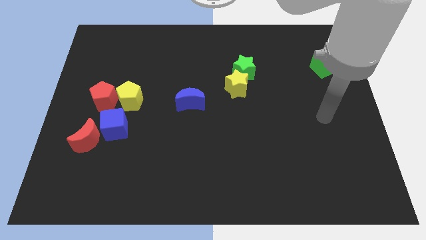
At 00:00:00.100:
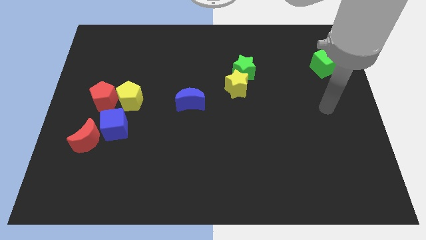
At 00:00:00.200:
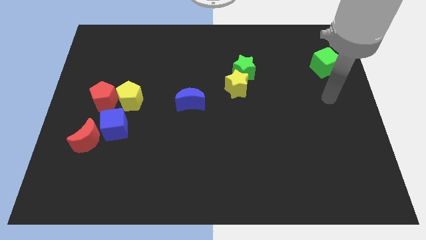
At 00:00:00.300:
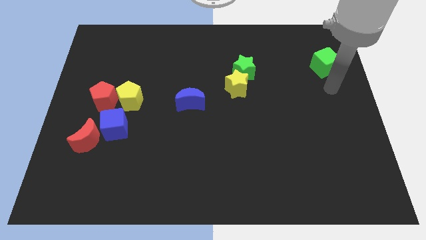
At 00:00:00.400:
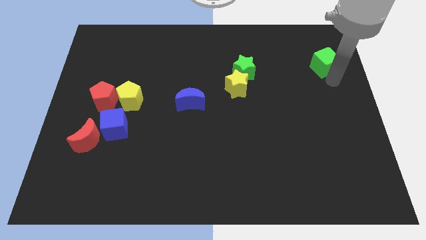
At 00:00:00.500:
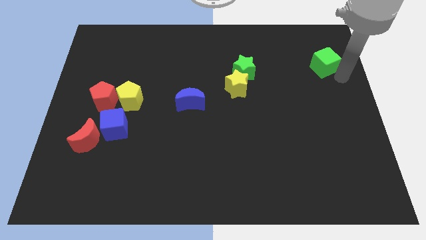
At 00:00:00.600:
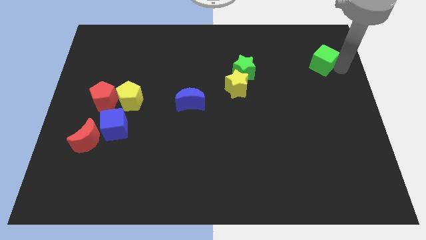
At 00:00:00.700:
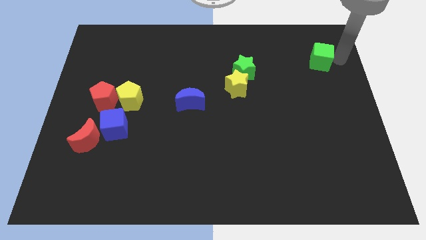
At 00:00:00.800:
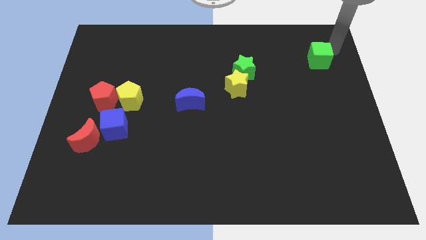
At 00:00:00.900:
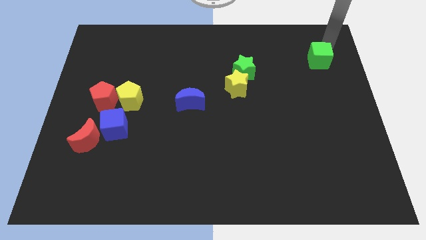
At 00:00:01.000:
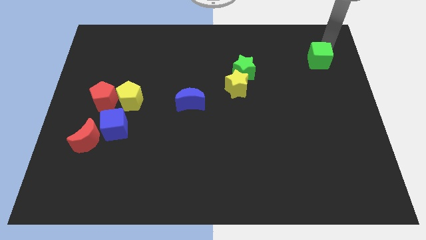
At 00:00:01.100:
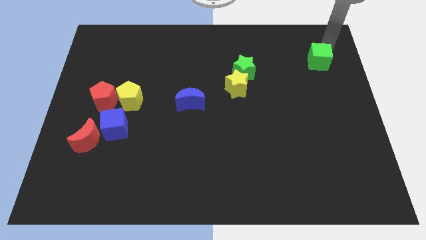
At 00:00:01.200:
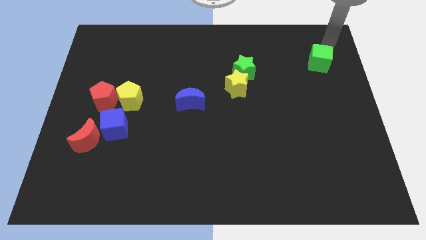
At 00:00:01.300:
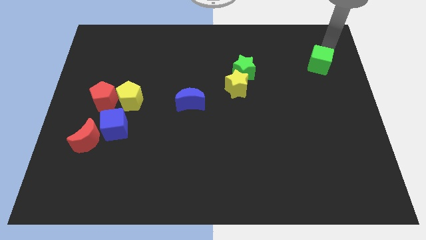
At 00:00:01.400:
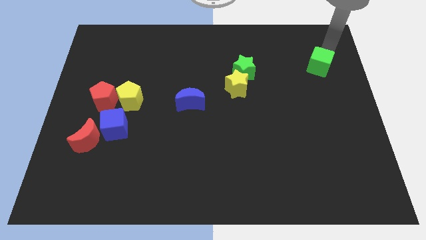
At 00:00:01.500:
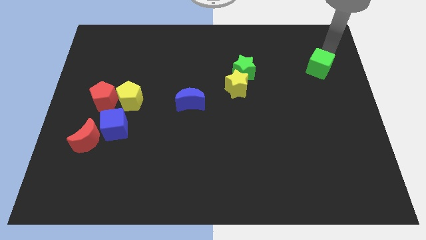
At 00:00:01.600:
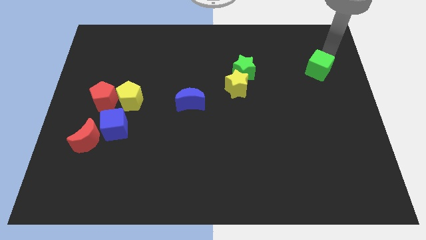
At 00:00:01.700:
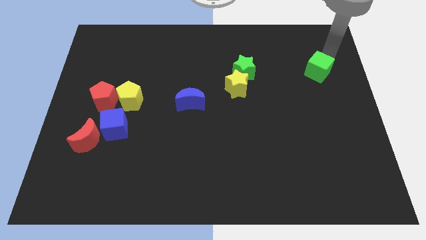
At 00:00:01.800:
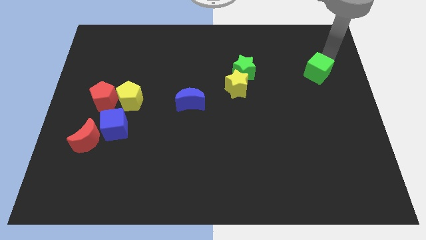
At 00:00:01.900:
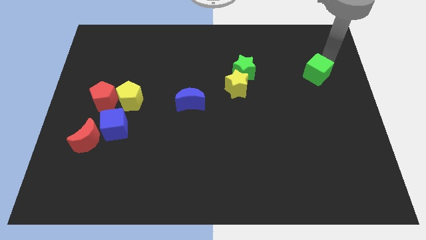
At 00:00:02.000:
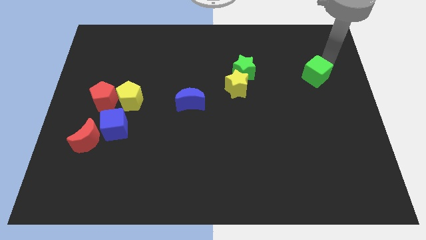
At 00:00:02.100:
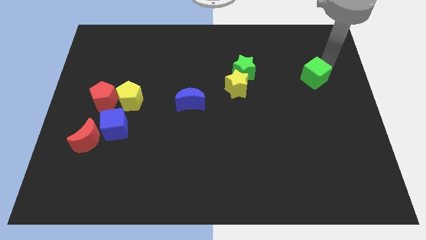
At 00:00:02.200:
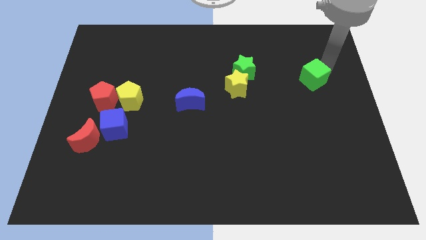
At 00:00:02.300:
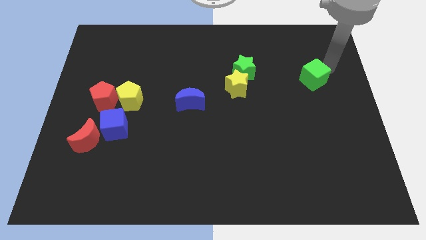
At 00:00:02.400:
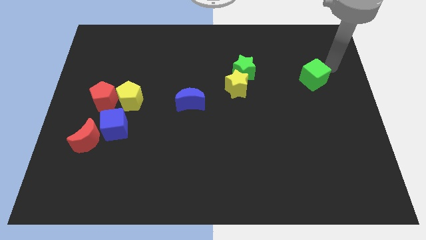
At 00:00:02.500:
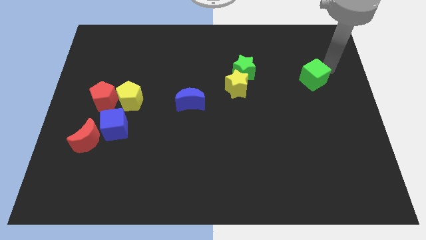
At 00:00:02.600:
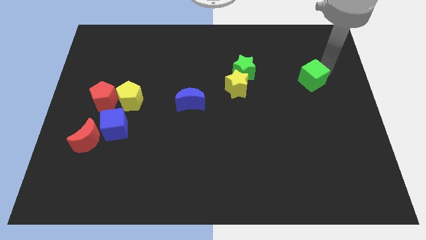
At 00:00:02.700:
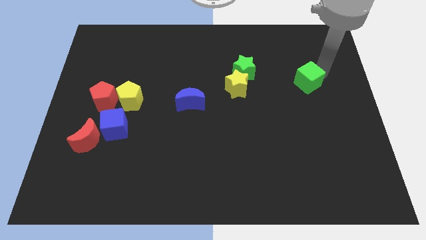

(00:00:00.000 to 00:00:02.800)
slightly push the green cube downwards and to the left diagonally

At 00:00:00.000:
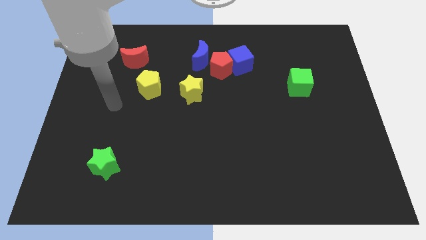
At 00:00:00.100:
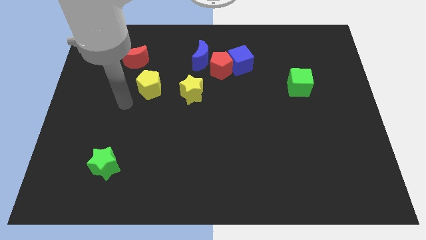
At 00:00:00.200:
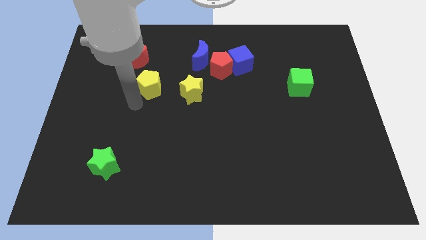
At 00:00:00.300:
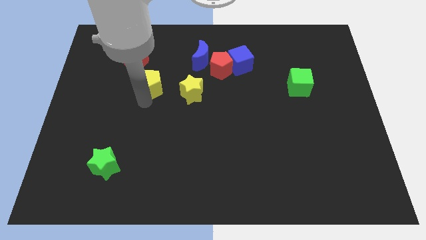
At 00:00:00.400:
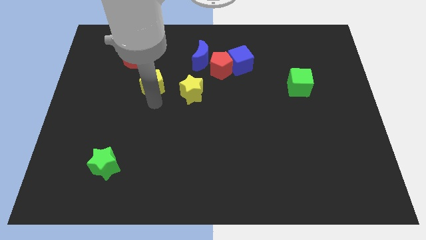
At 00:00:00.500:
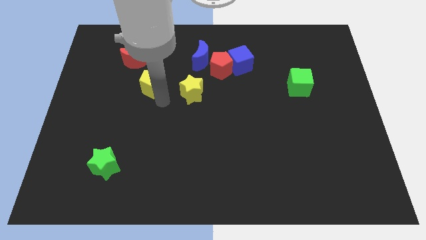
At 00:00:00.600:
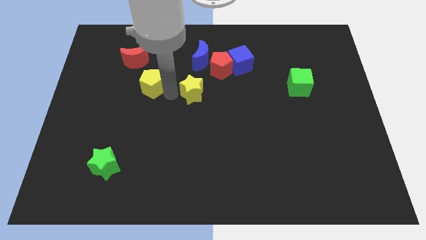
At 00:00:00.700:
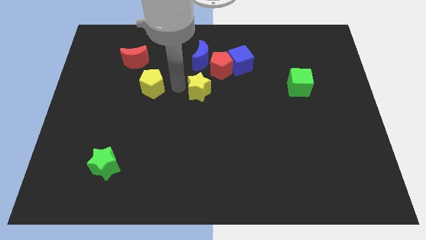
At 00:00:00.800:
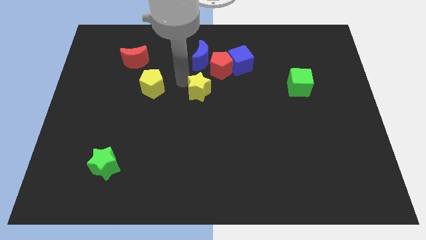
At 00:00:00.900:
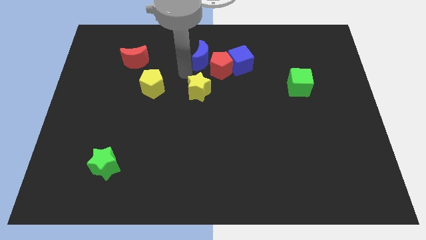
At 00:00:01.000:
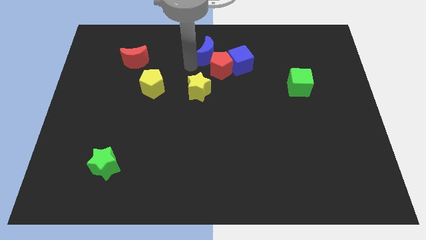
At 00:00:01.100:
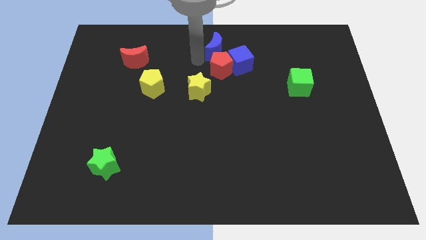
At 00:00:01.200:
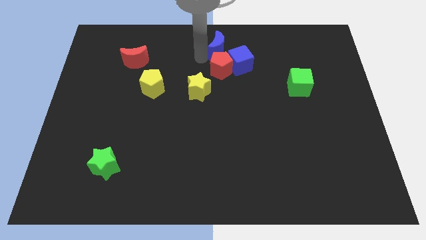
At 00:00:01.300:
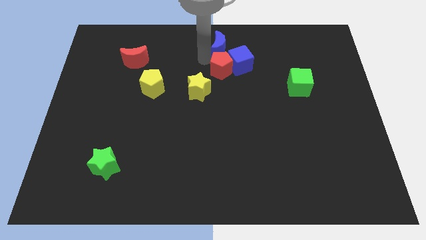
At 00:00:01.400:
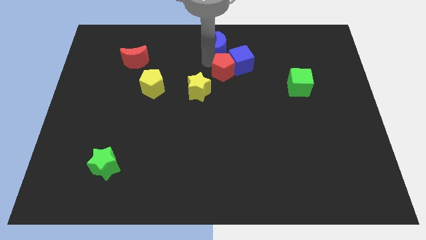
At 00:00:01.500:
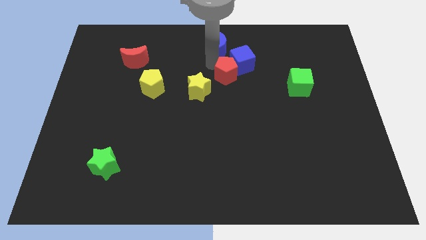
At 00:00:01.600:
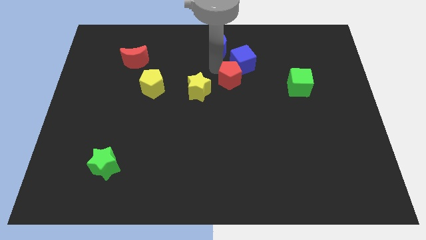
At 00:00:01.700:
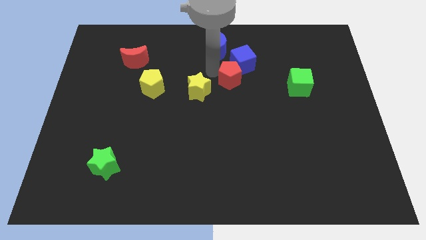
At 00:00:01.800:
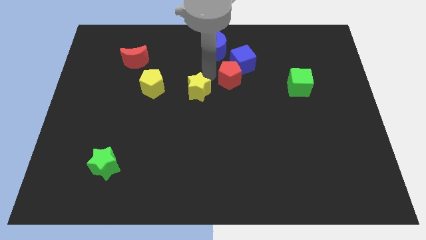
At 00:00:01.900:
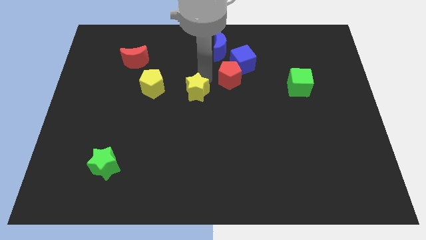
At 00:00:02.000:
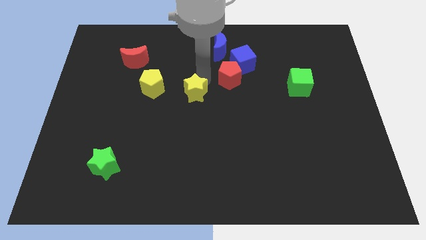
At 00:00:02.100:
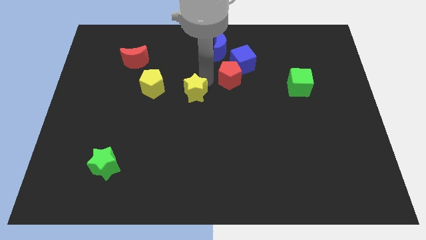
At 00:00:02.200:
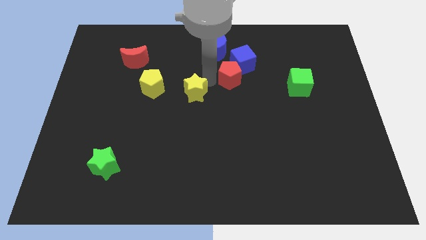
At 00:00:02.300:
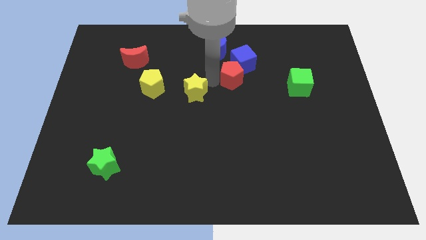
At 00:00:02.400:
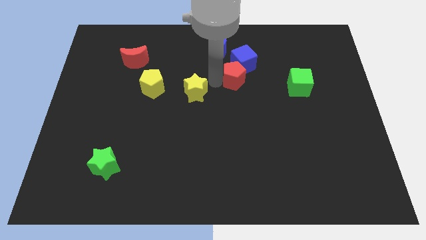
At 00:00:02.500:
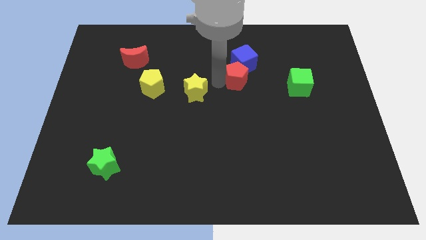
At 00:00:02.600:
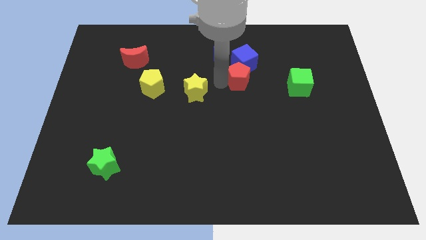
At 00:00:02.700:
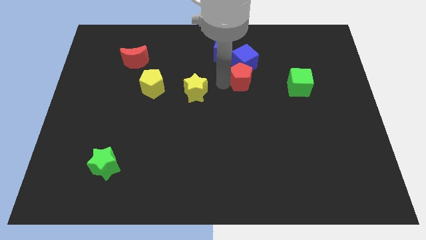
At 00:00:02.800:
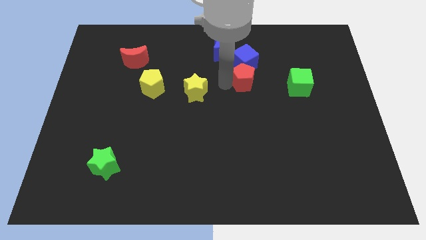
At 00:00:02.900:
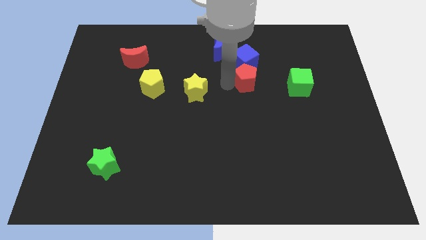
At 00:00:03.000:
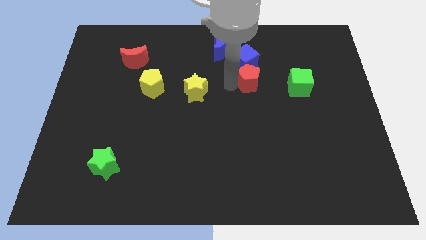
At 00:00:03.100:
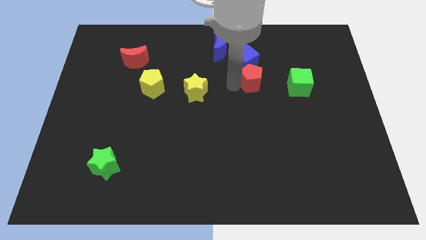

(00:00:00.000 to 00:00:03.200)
move the red pentagon a bit right

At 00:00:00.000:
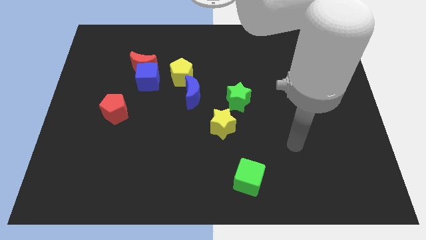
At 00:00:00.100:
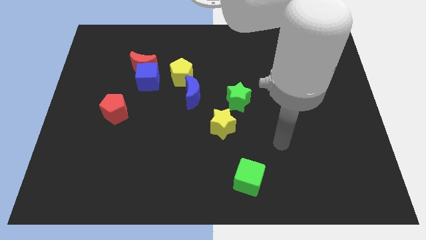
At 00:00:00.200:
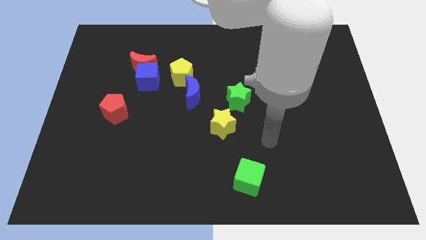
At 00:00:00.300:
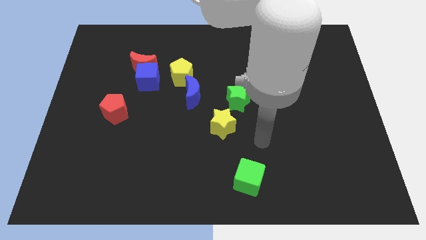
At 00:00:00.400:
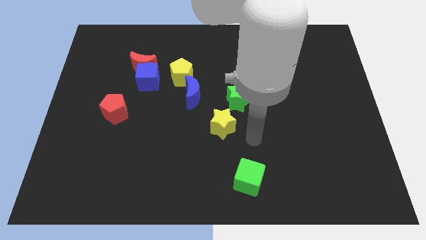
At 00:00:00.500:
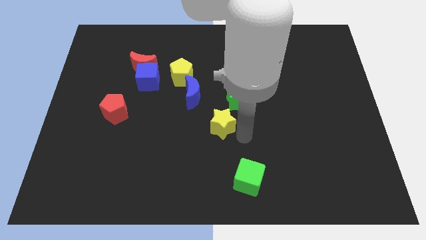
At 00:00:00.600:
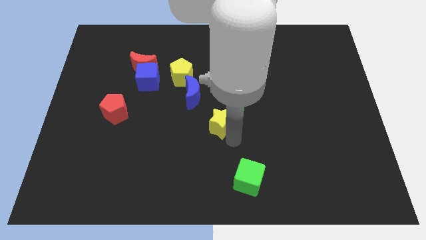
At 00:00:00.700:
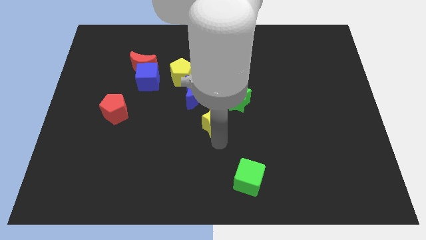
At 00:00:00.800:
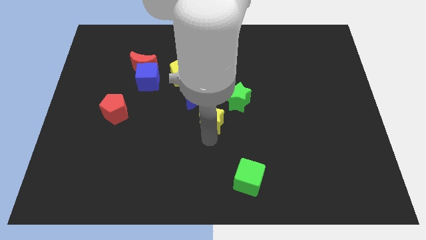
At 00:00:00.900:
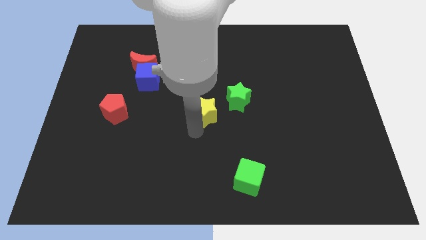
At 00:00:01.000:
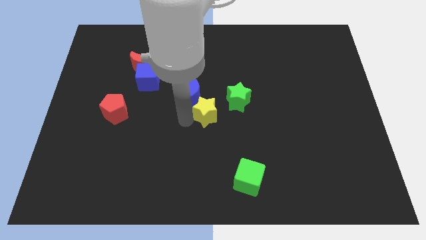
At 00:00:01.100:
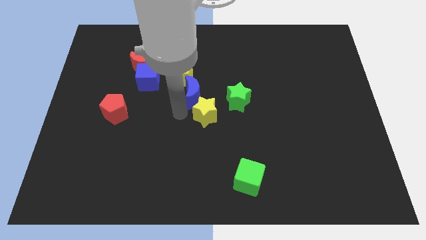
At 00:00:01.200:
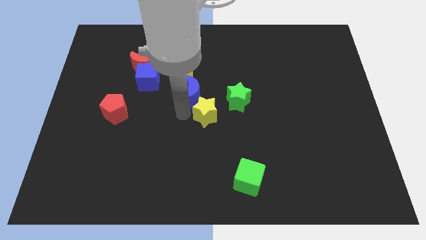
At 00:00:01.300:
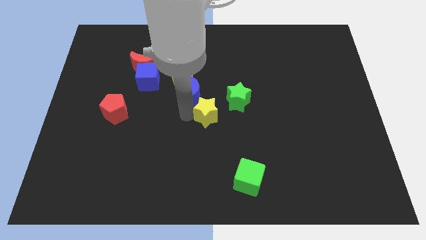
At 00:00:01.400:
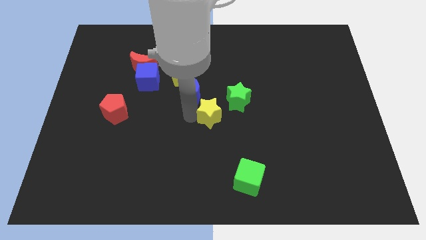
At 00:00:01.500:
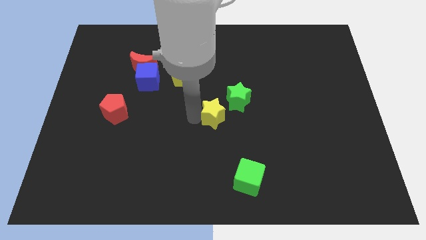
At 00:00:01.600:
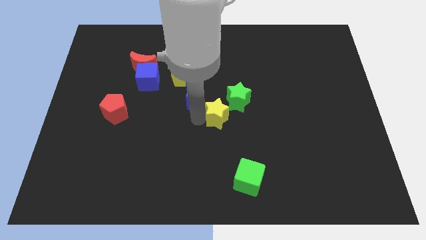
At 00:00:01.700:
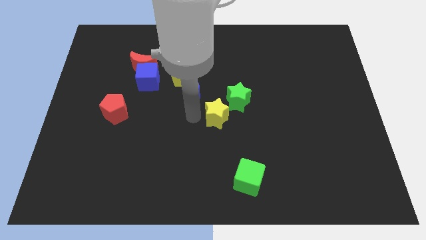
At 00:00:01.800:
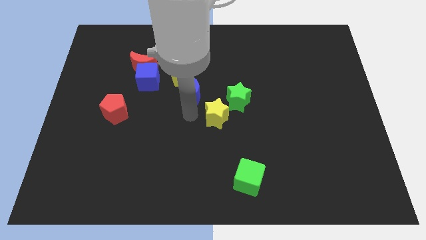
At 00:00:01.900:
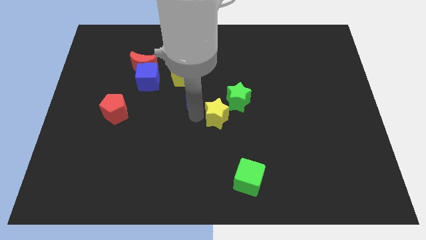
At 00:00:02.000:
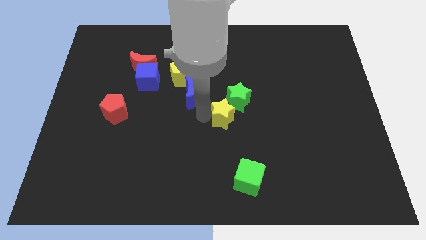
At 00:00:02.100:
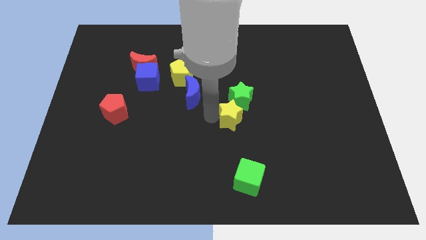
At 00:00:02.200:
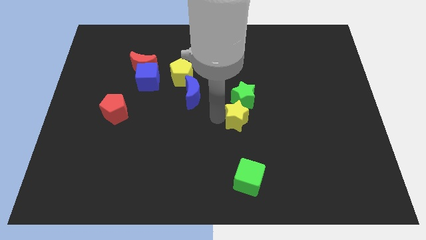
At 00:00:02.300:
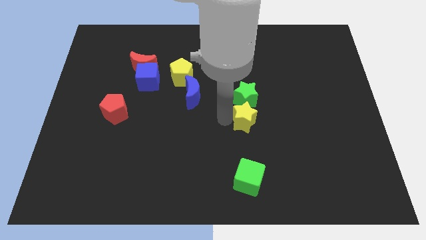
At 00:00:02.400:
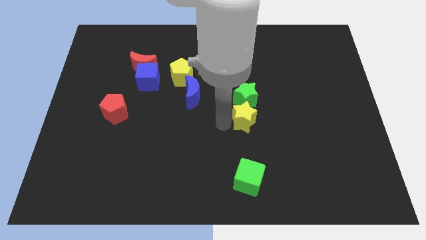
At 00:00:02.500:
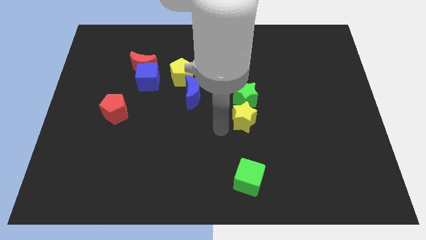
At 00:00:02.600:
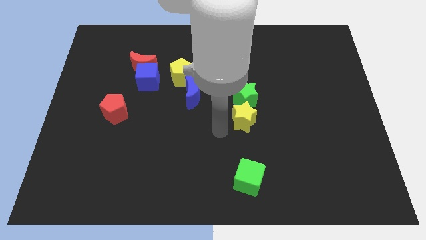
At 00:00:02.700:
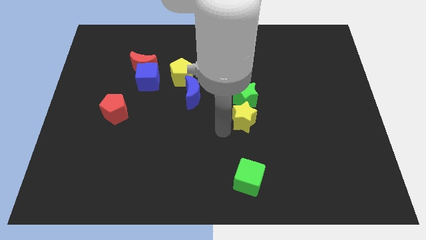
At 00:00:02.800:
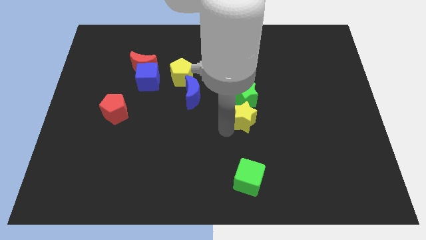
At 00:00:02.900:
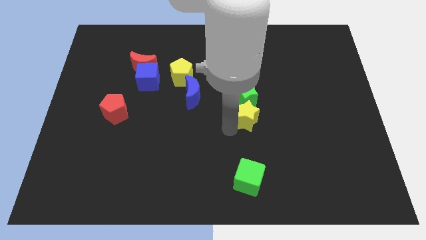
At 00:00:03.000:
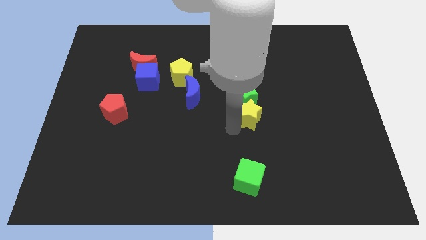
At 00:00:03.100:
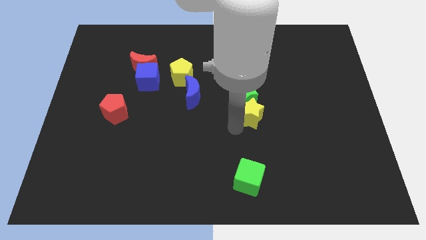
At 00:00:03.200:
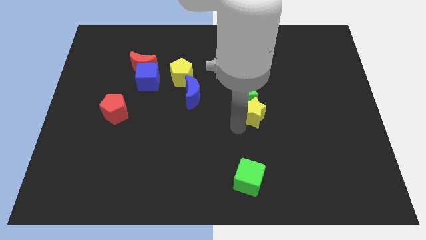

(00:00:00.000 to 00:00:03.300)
push the yellow star somewhat upwards and then to the right
